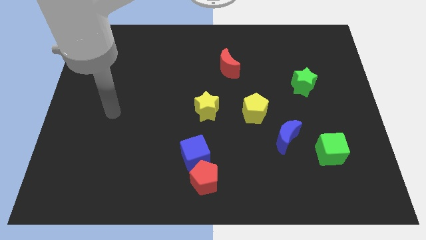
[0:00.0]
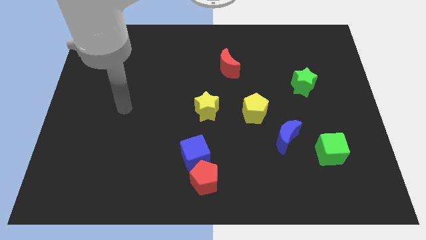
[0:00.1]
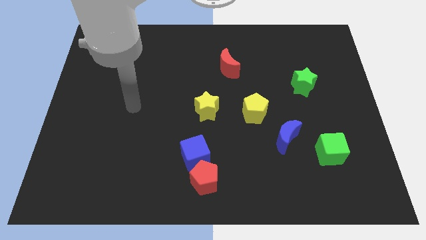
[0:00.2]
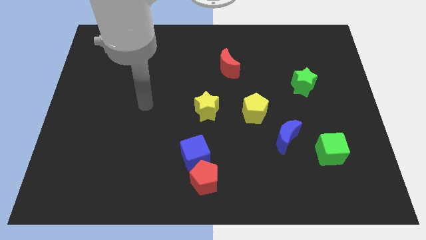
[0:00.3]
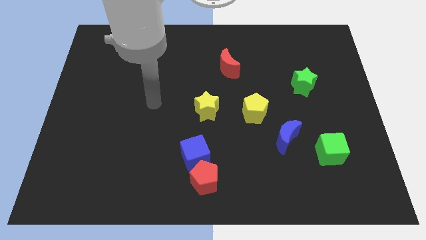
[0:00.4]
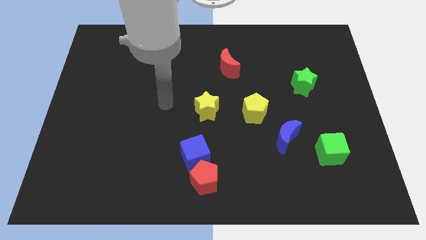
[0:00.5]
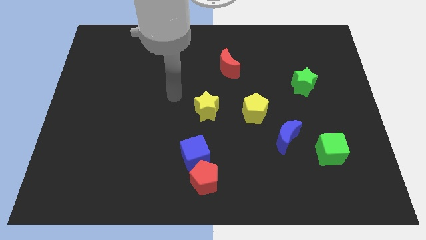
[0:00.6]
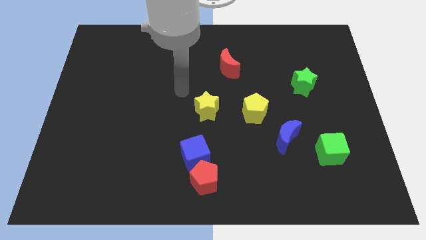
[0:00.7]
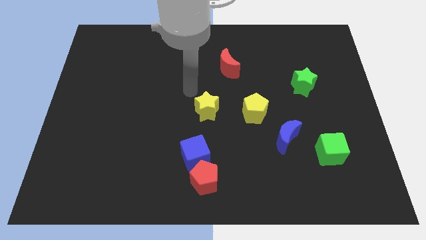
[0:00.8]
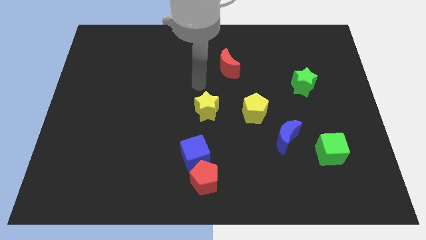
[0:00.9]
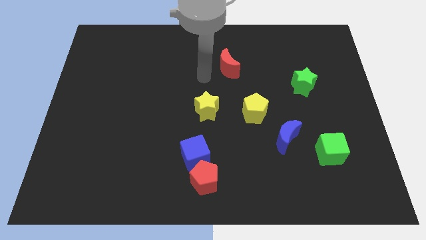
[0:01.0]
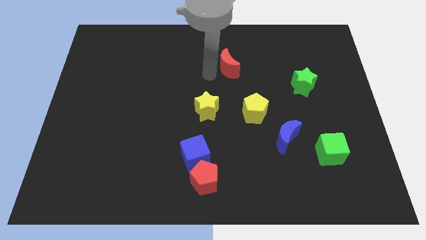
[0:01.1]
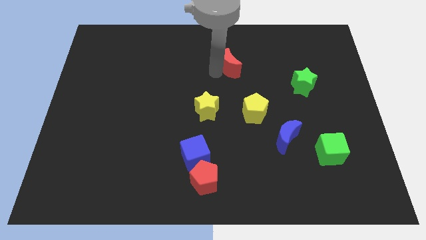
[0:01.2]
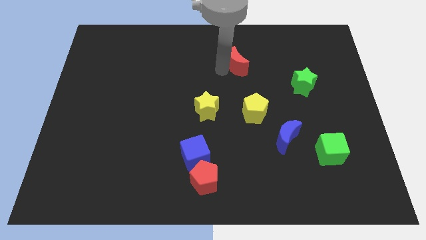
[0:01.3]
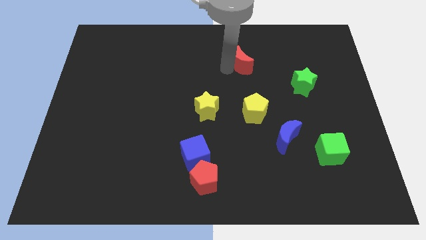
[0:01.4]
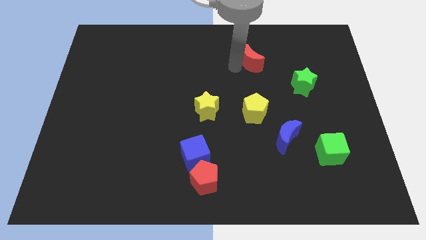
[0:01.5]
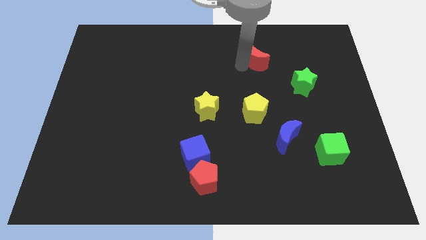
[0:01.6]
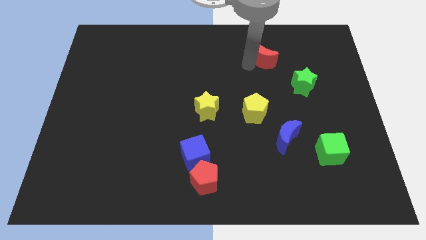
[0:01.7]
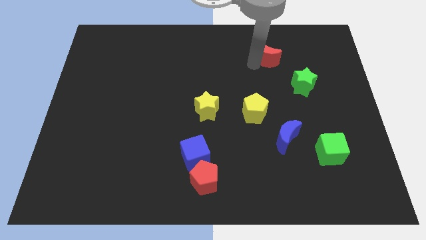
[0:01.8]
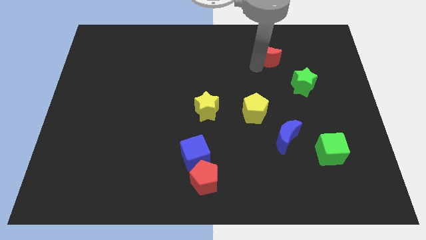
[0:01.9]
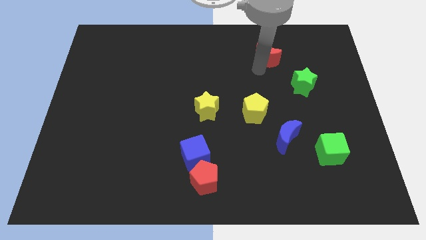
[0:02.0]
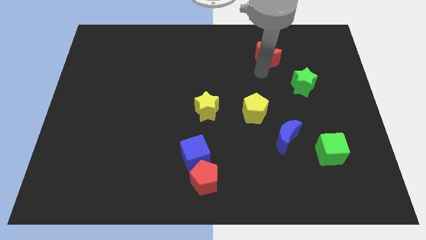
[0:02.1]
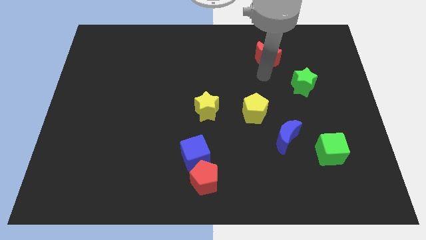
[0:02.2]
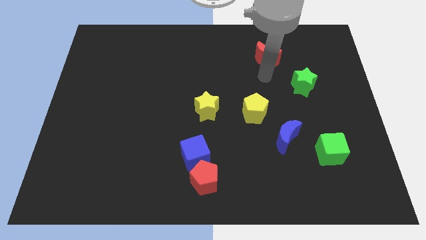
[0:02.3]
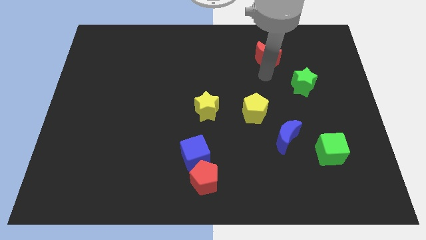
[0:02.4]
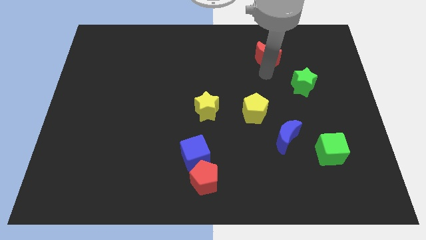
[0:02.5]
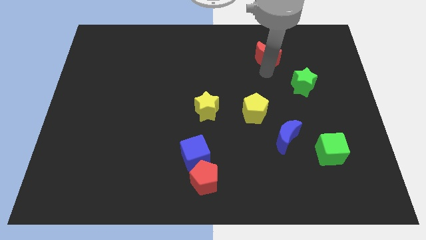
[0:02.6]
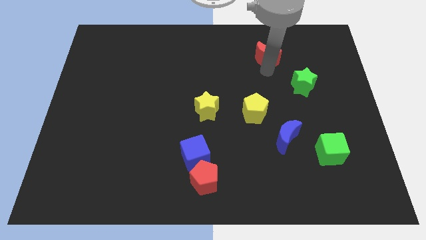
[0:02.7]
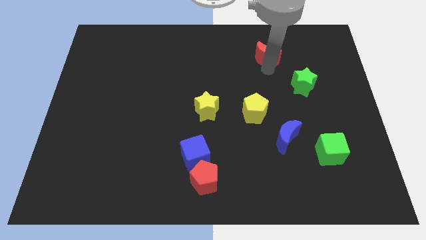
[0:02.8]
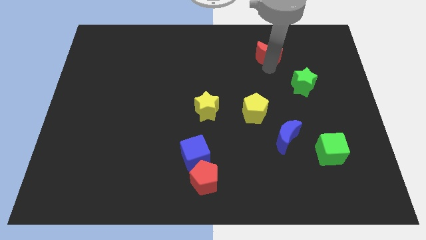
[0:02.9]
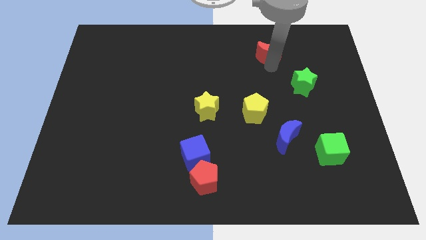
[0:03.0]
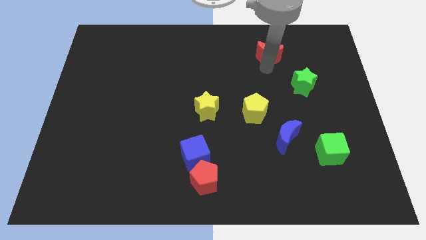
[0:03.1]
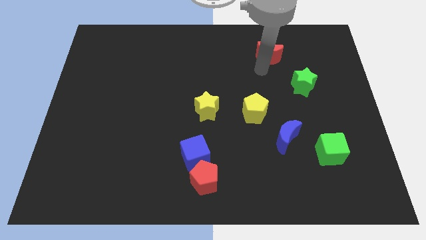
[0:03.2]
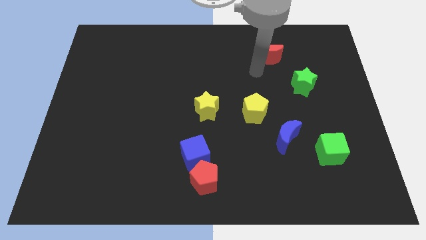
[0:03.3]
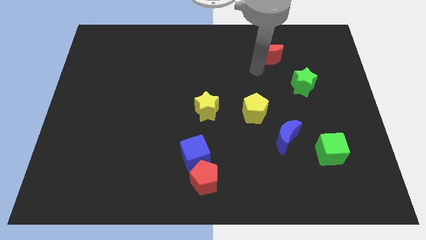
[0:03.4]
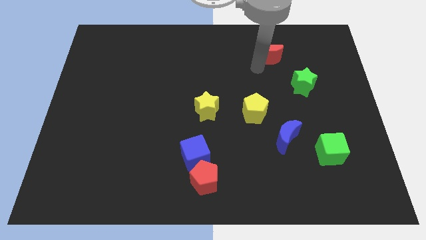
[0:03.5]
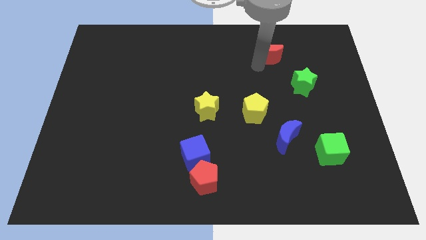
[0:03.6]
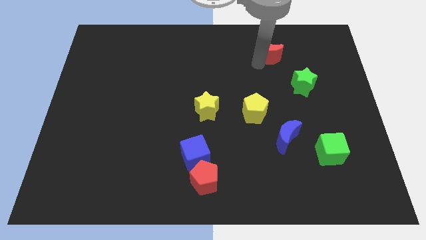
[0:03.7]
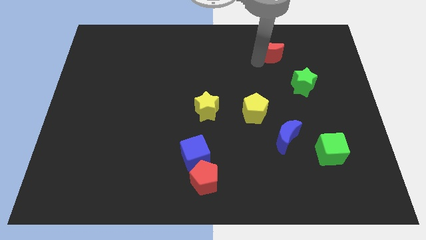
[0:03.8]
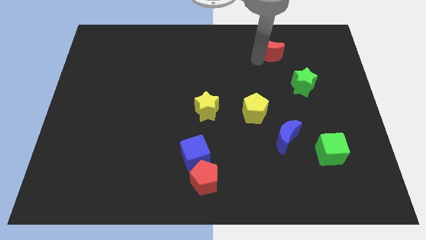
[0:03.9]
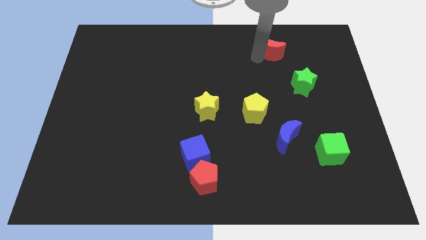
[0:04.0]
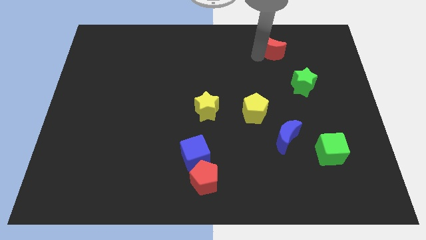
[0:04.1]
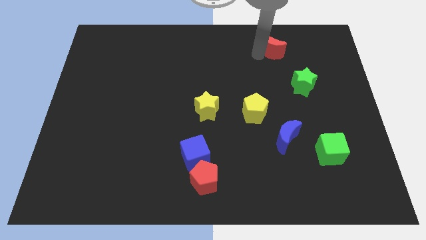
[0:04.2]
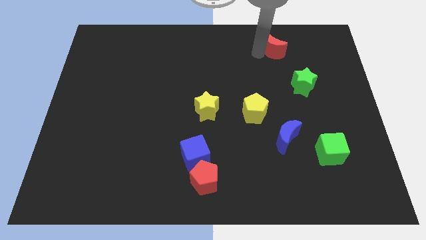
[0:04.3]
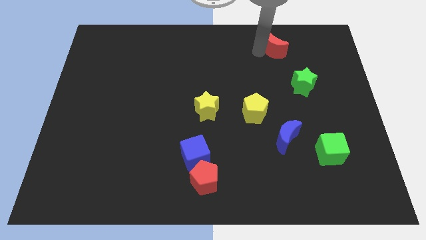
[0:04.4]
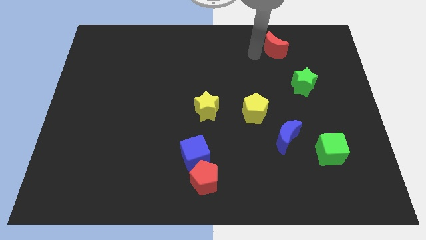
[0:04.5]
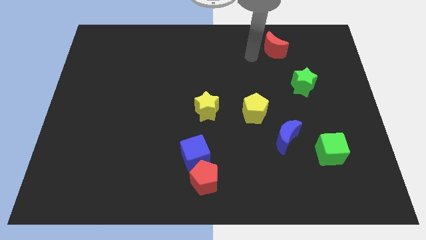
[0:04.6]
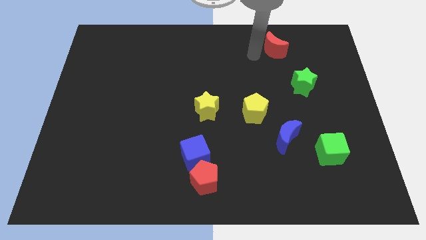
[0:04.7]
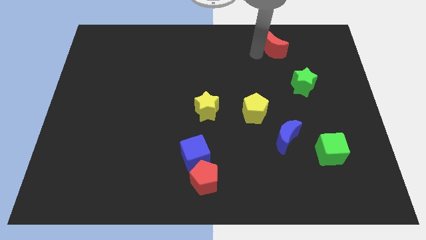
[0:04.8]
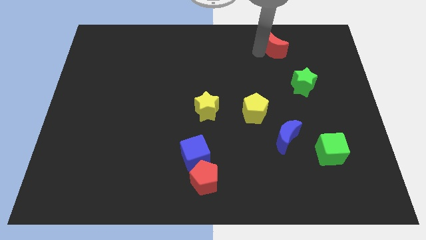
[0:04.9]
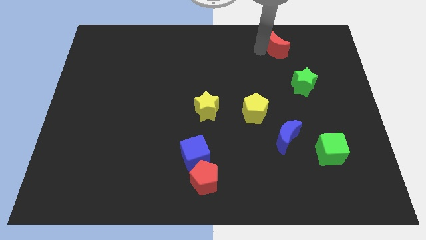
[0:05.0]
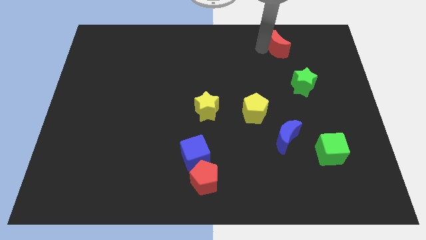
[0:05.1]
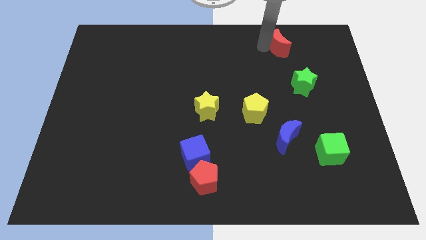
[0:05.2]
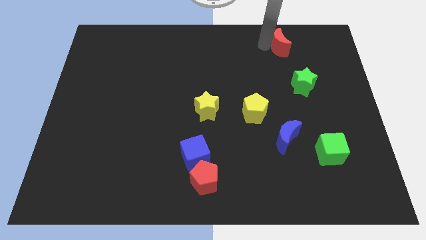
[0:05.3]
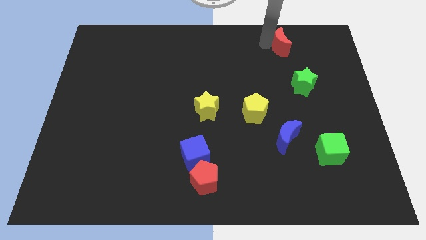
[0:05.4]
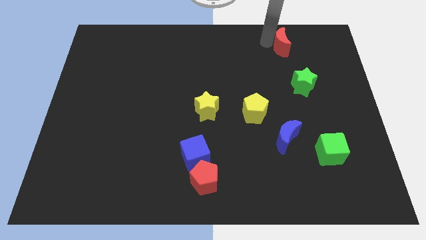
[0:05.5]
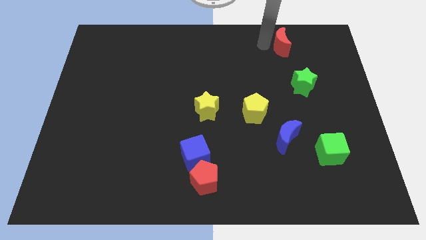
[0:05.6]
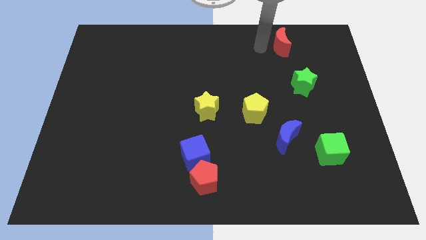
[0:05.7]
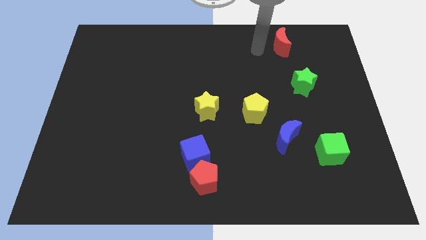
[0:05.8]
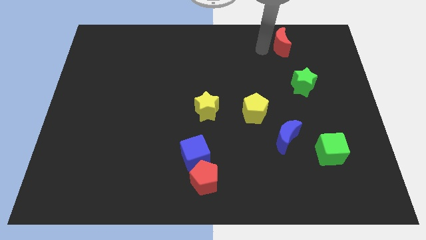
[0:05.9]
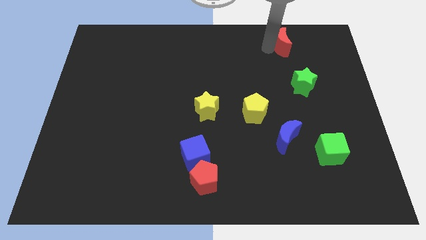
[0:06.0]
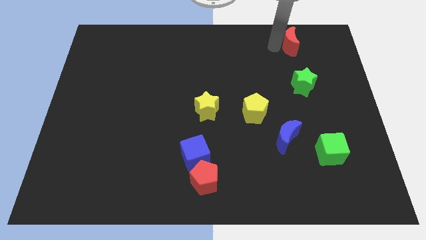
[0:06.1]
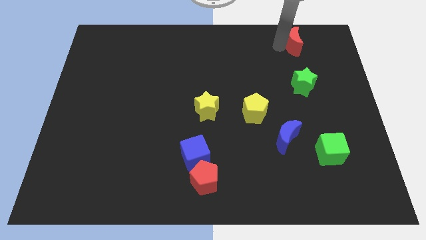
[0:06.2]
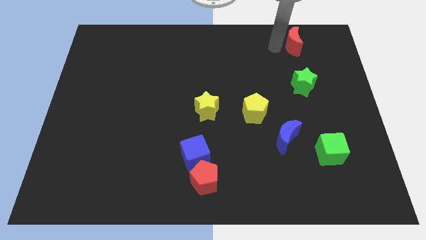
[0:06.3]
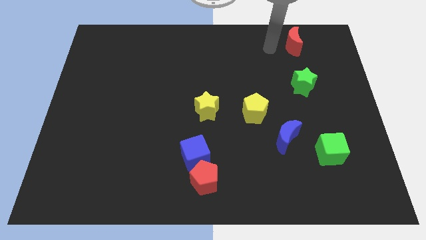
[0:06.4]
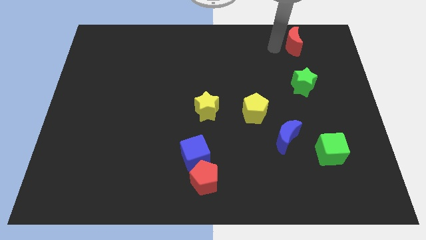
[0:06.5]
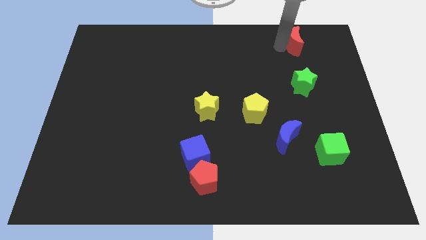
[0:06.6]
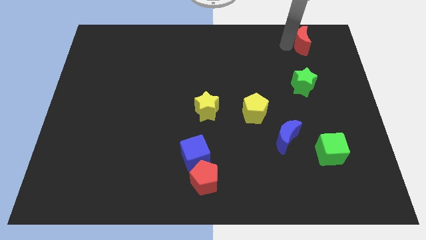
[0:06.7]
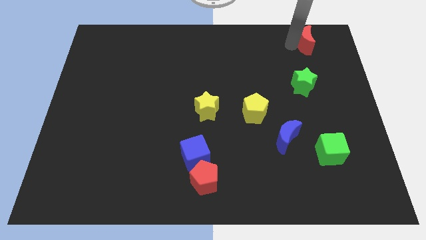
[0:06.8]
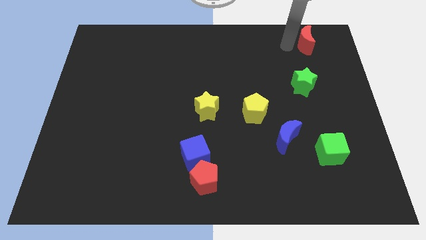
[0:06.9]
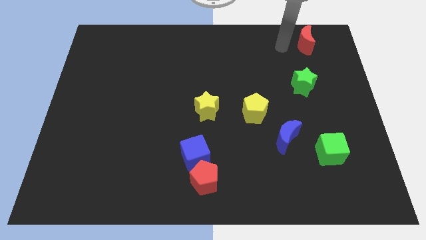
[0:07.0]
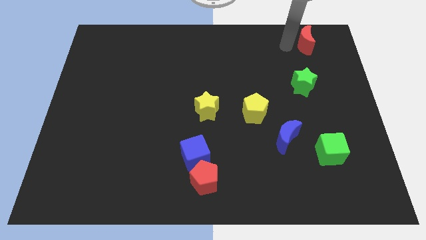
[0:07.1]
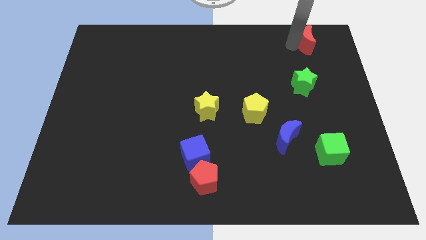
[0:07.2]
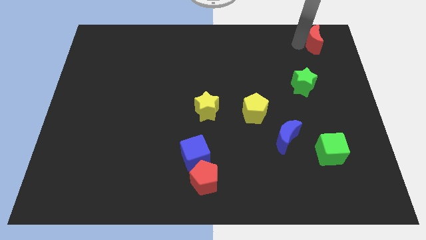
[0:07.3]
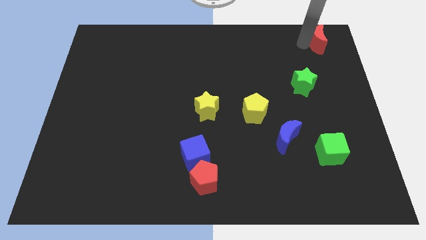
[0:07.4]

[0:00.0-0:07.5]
slide the red moon to the top right of the board
